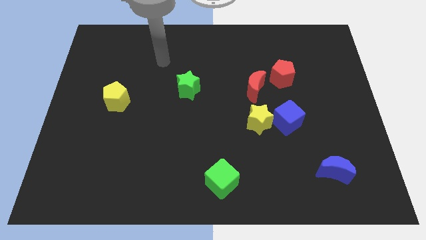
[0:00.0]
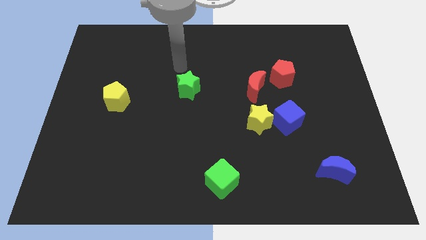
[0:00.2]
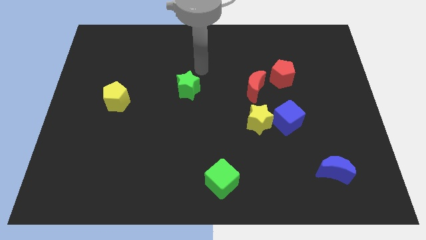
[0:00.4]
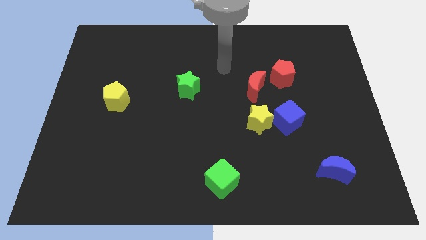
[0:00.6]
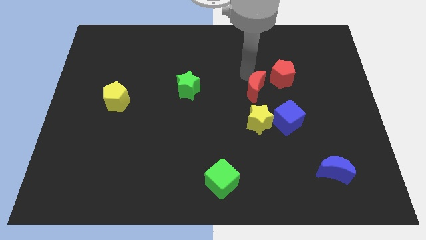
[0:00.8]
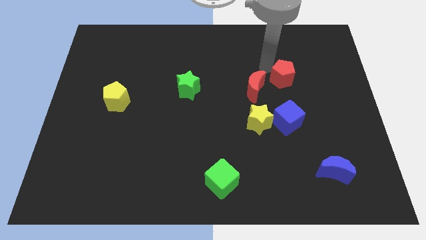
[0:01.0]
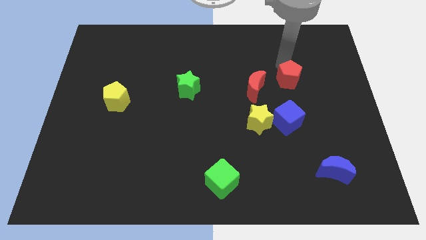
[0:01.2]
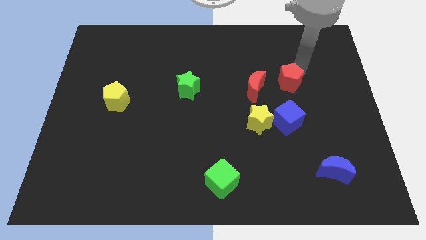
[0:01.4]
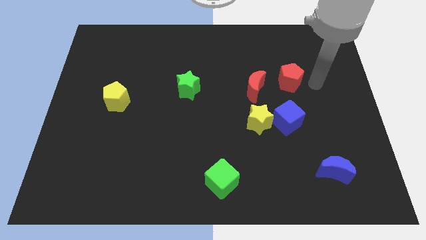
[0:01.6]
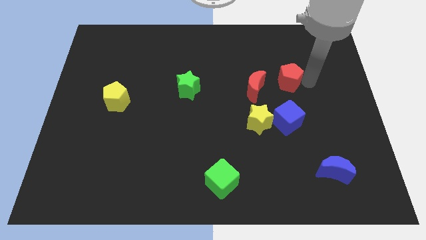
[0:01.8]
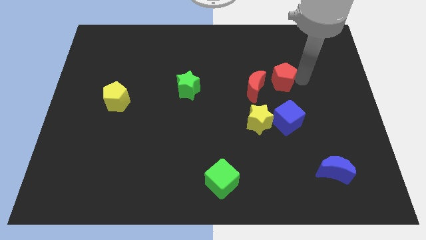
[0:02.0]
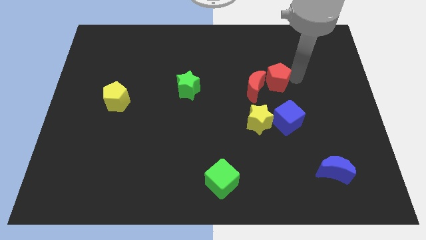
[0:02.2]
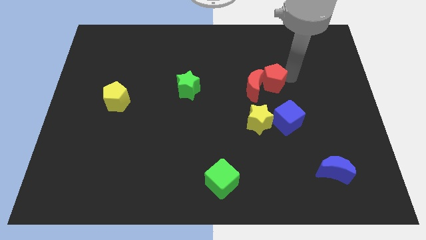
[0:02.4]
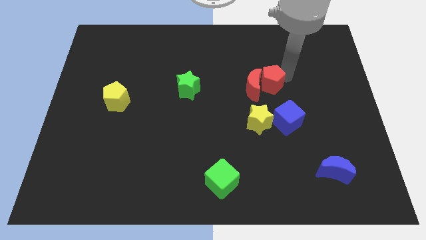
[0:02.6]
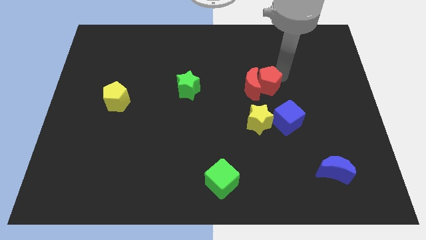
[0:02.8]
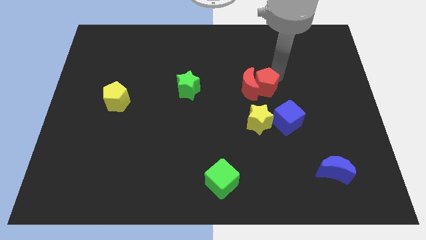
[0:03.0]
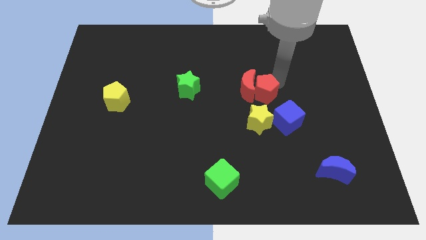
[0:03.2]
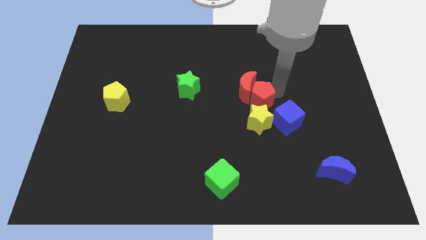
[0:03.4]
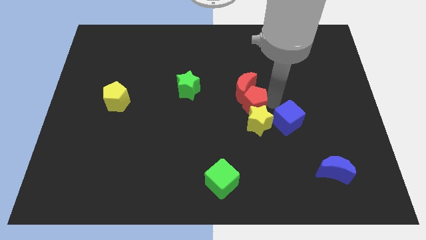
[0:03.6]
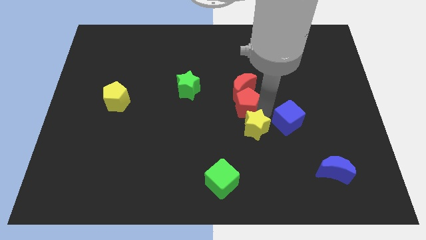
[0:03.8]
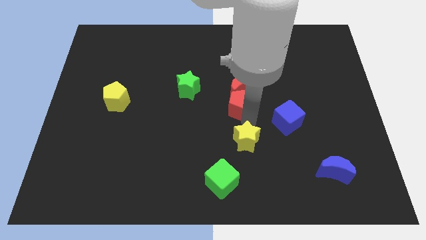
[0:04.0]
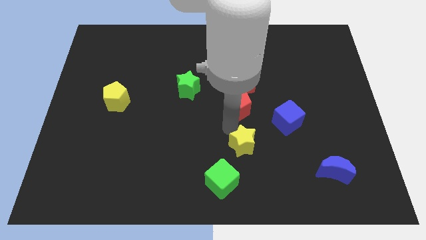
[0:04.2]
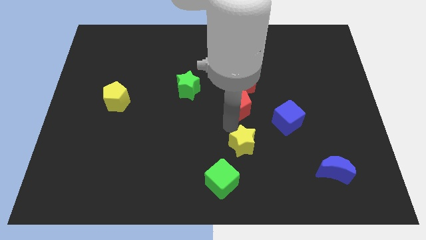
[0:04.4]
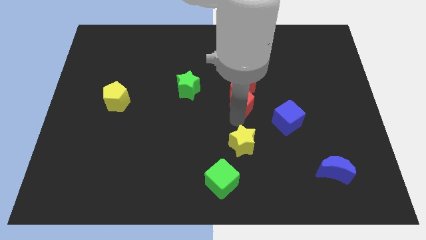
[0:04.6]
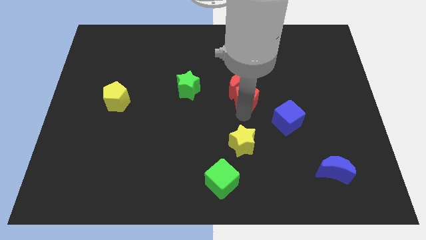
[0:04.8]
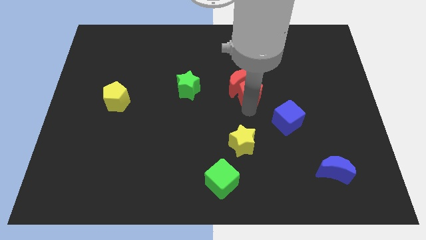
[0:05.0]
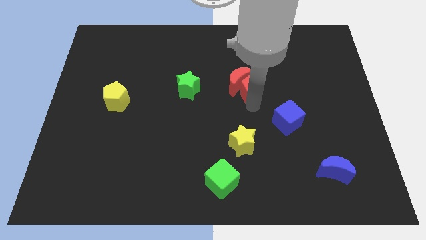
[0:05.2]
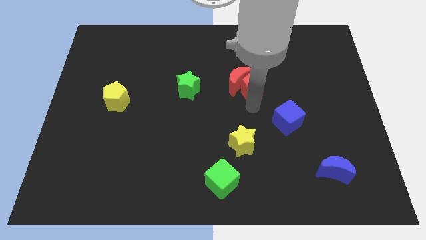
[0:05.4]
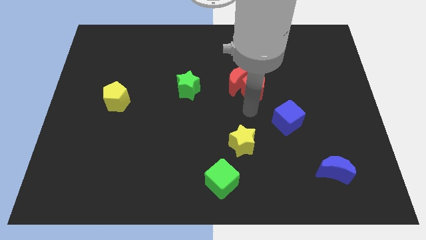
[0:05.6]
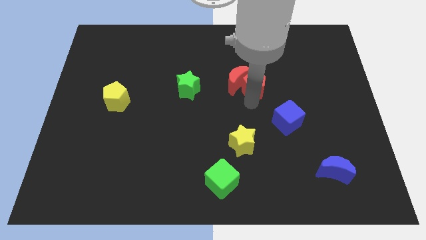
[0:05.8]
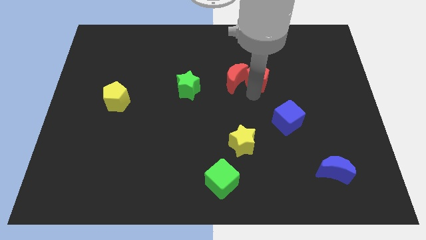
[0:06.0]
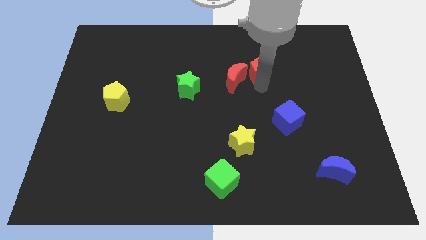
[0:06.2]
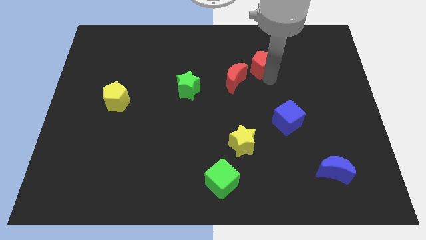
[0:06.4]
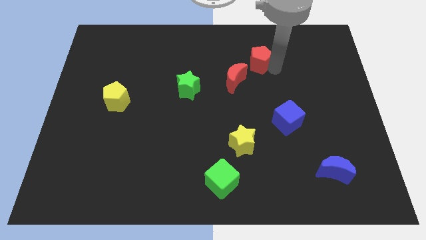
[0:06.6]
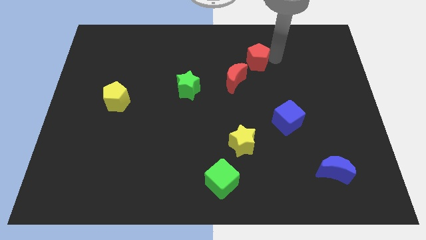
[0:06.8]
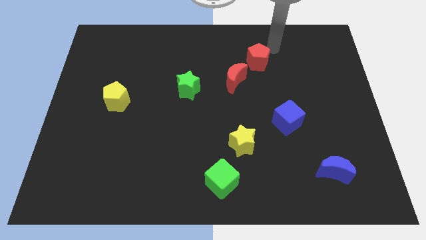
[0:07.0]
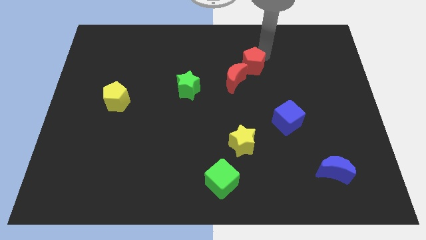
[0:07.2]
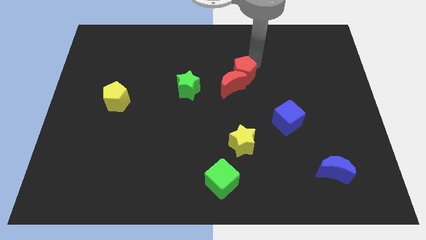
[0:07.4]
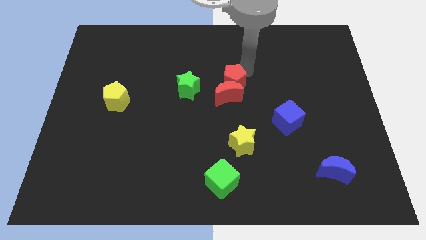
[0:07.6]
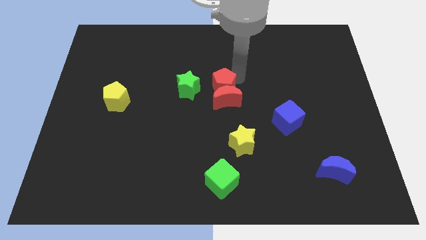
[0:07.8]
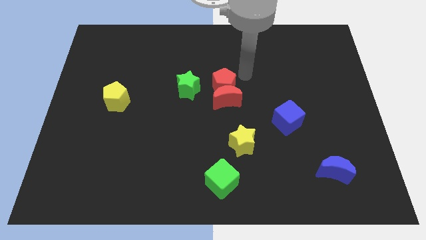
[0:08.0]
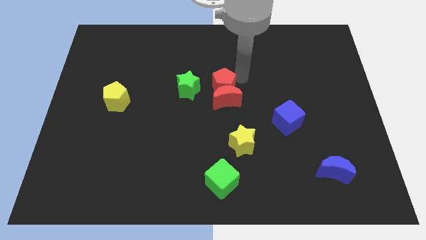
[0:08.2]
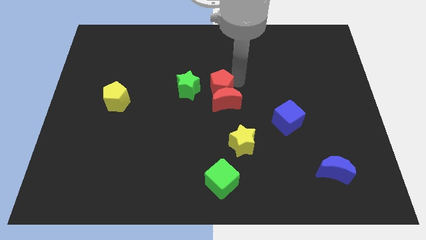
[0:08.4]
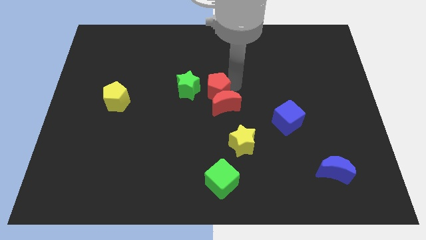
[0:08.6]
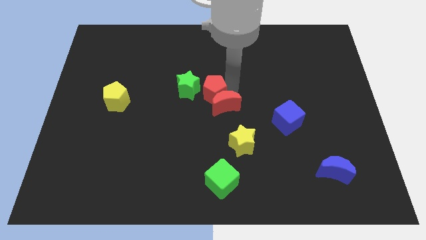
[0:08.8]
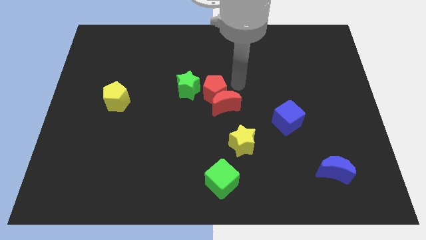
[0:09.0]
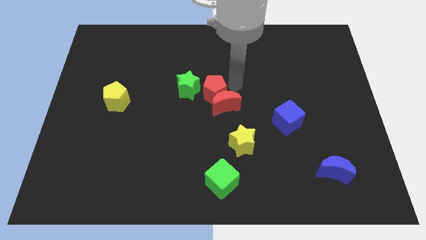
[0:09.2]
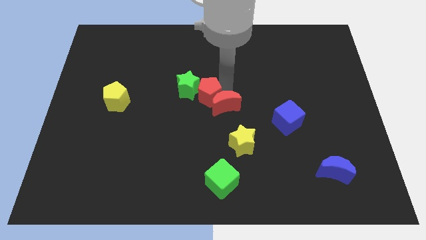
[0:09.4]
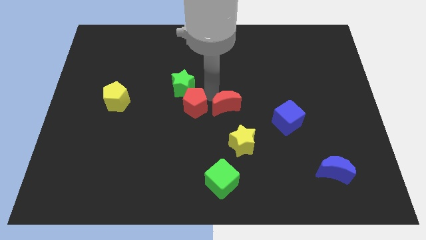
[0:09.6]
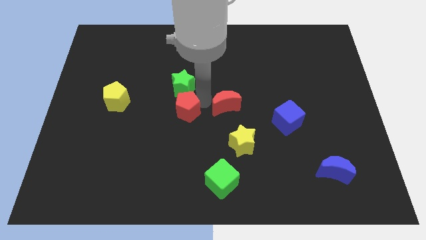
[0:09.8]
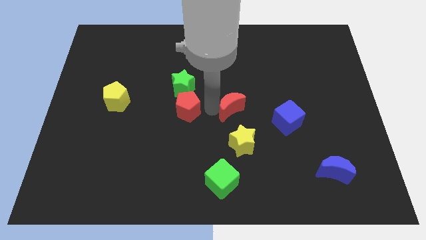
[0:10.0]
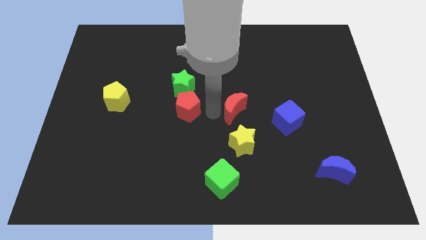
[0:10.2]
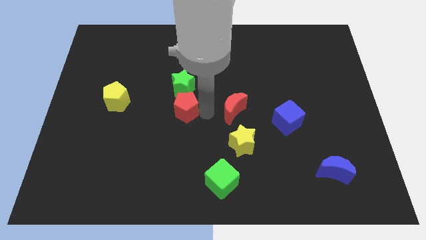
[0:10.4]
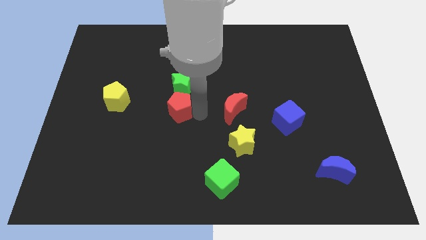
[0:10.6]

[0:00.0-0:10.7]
slide the red pentagon to the bottom left of the green star

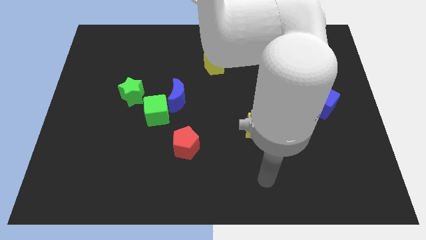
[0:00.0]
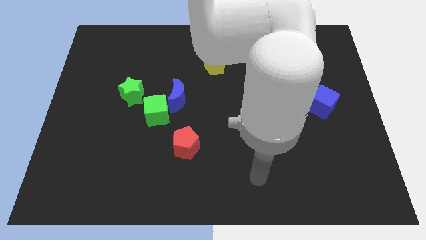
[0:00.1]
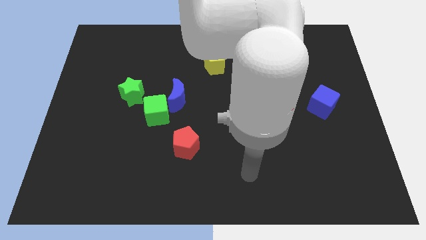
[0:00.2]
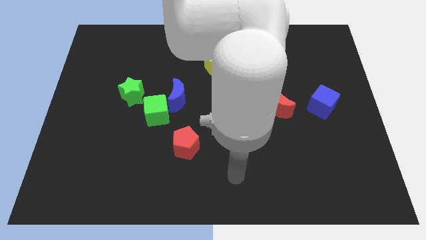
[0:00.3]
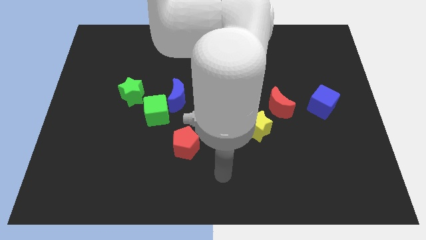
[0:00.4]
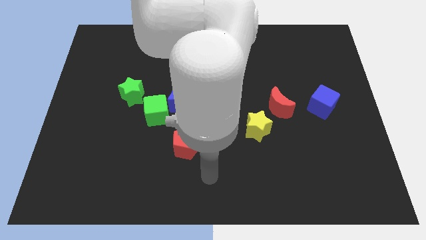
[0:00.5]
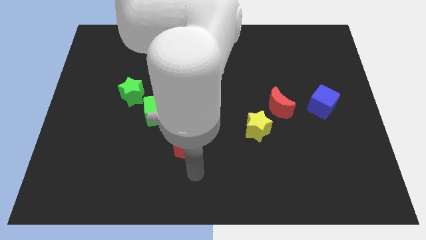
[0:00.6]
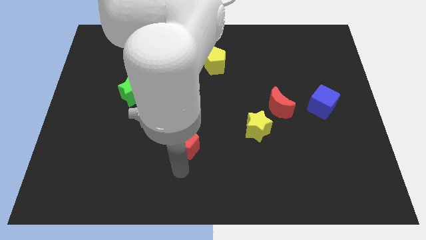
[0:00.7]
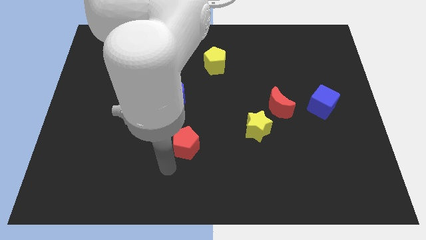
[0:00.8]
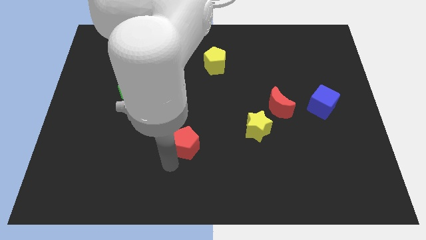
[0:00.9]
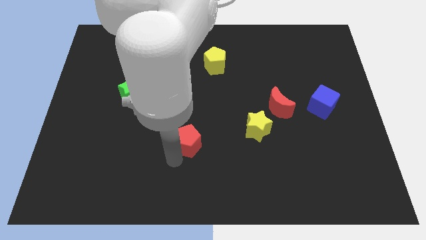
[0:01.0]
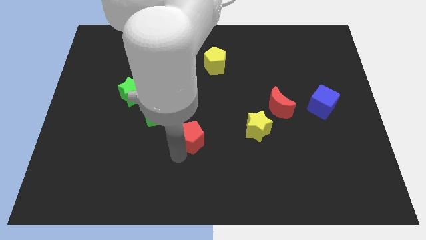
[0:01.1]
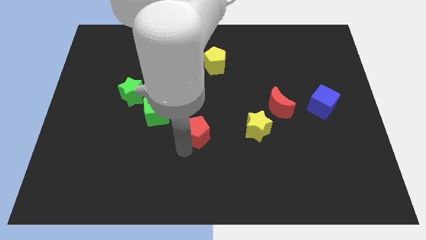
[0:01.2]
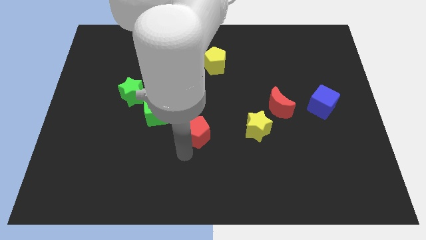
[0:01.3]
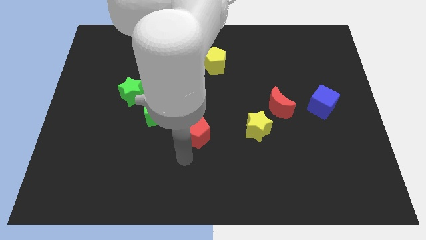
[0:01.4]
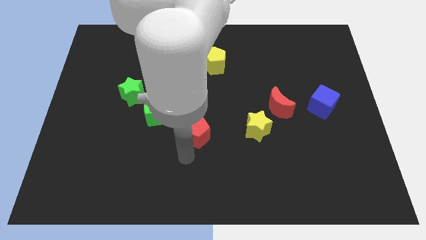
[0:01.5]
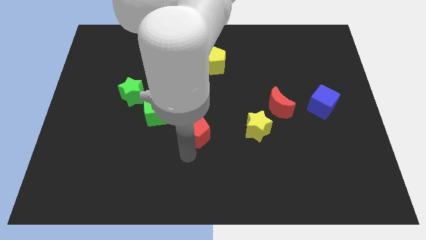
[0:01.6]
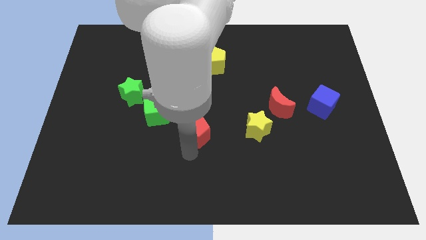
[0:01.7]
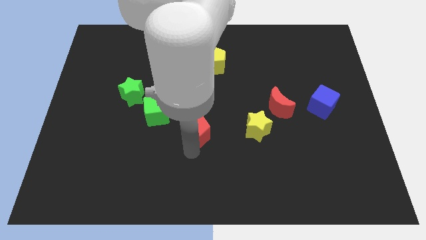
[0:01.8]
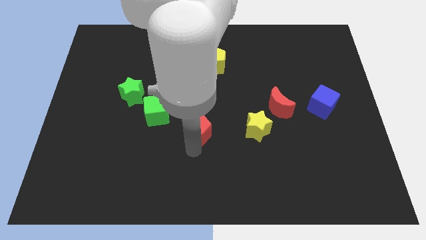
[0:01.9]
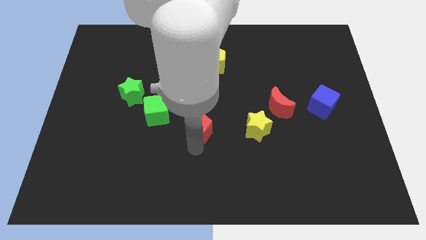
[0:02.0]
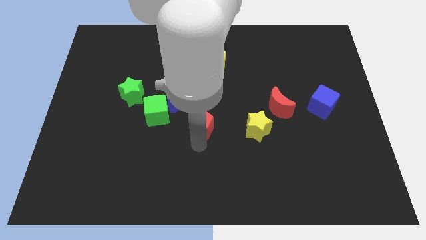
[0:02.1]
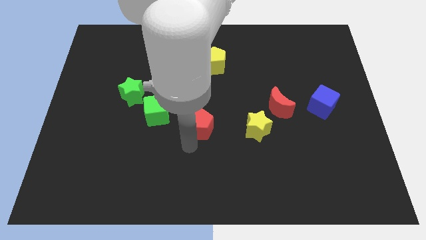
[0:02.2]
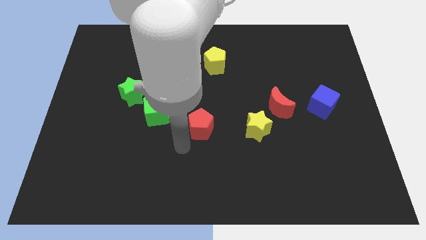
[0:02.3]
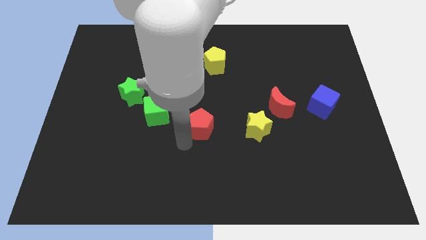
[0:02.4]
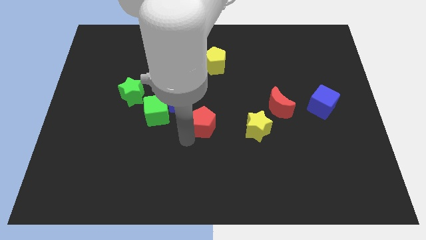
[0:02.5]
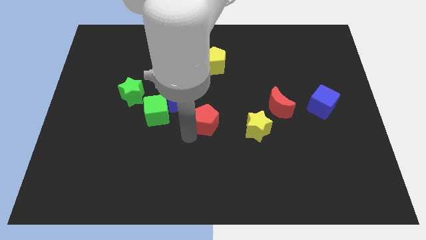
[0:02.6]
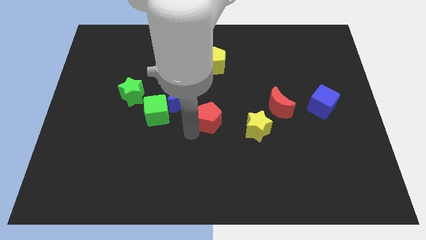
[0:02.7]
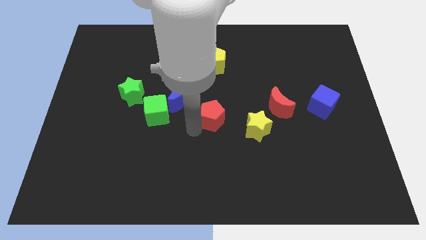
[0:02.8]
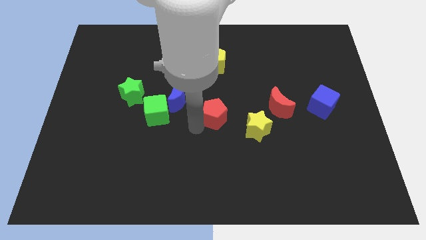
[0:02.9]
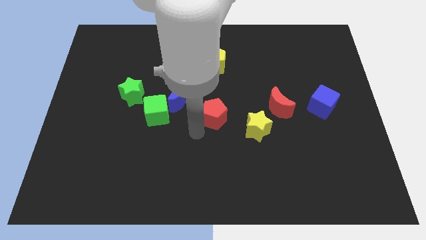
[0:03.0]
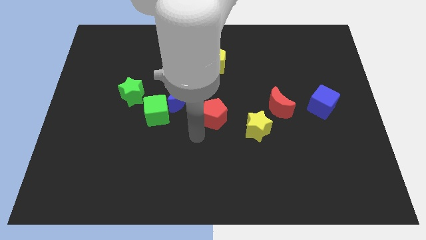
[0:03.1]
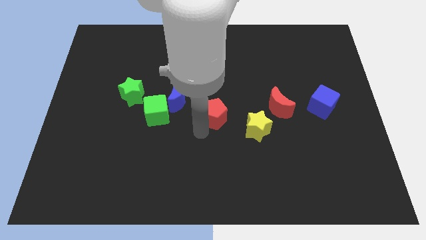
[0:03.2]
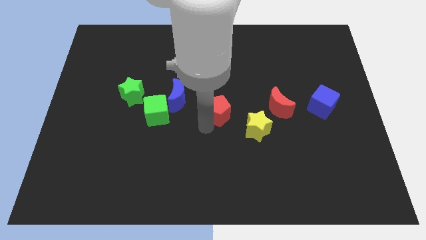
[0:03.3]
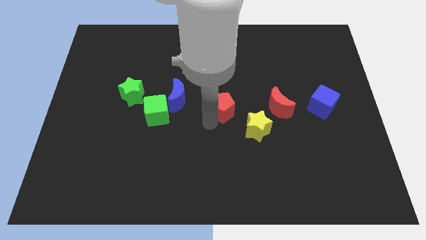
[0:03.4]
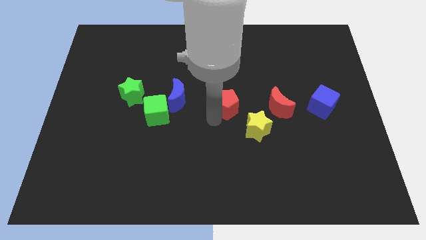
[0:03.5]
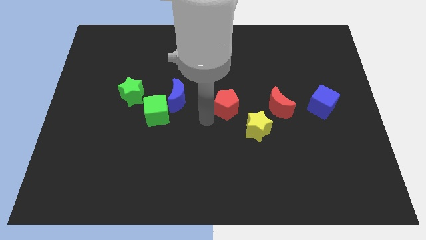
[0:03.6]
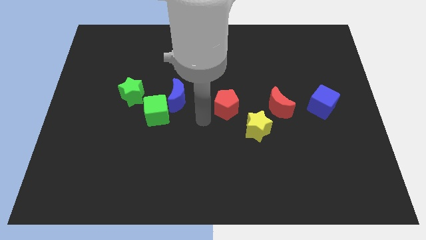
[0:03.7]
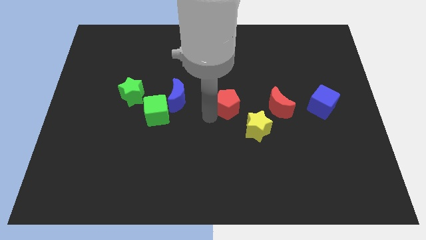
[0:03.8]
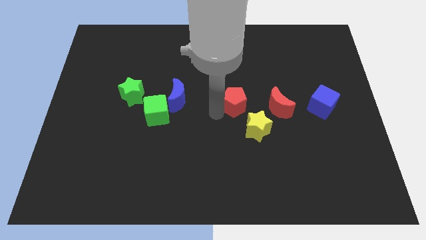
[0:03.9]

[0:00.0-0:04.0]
put the red pentagon above the yellow star
